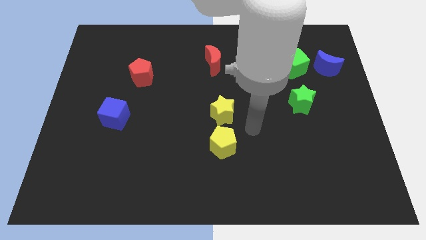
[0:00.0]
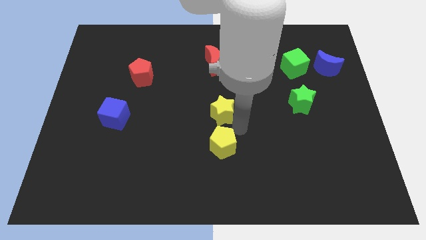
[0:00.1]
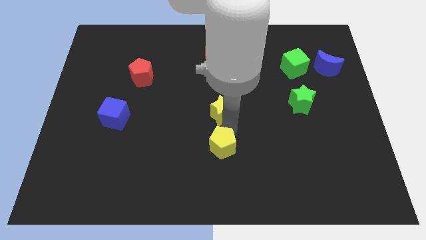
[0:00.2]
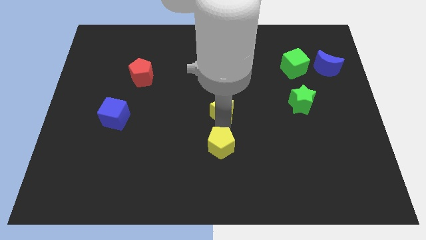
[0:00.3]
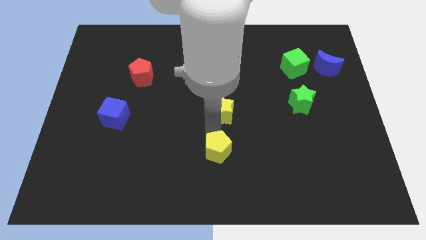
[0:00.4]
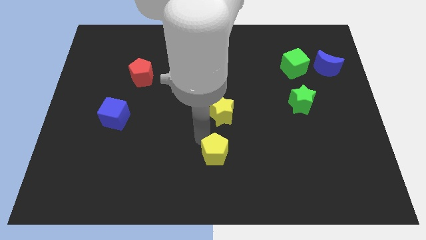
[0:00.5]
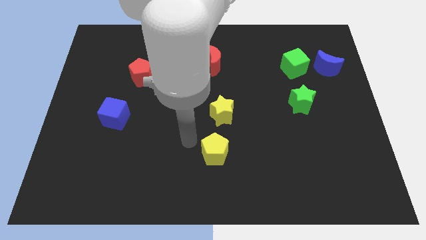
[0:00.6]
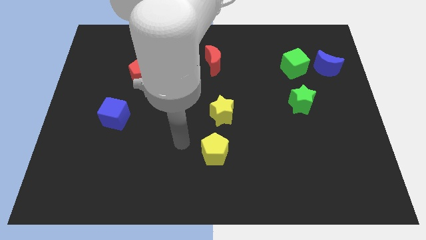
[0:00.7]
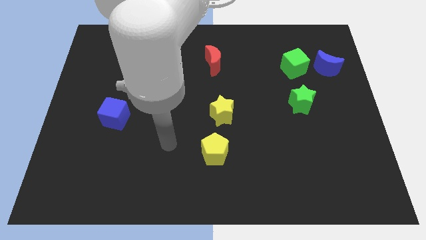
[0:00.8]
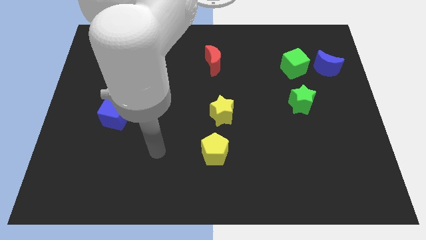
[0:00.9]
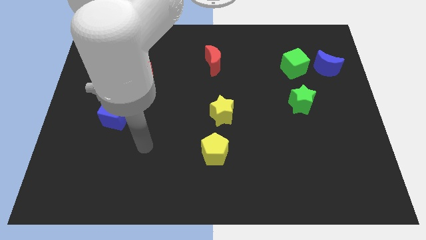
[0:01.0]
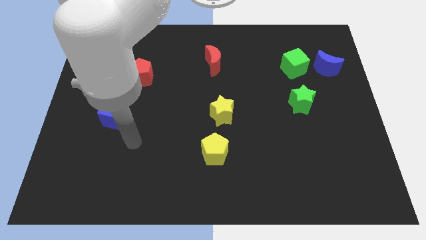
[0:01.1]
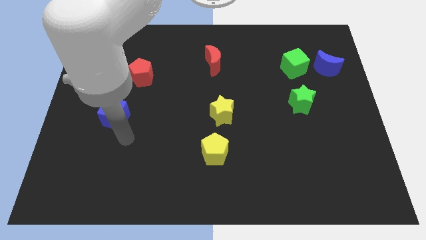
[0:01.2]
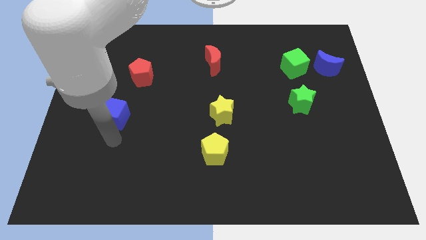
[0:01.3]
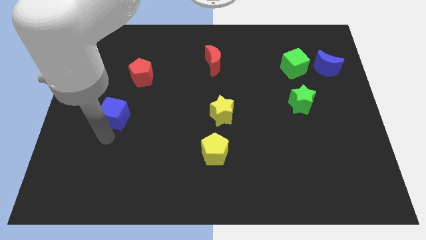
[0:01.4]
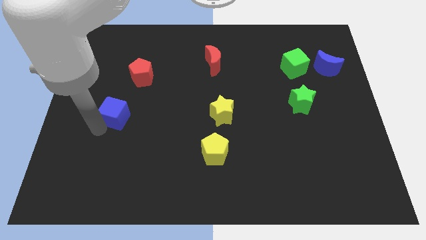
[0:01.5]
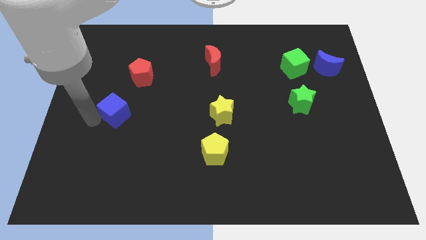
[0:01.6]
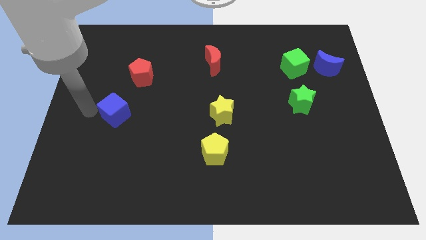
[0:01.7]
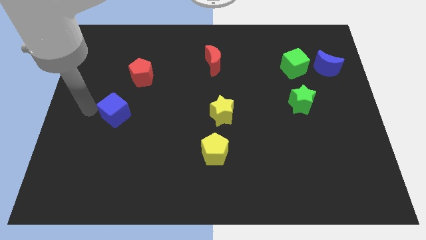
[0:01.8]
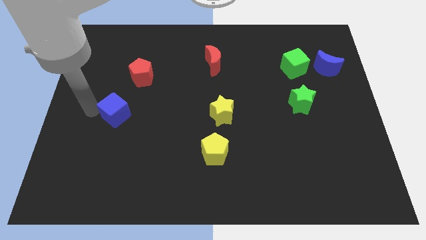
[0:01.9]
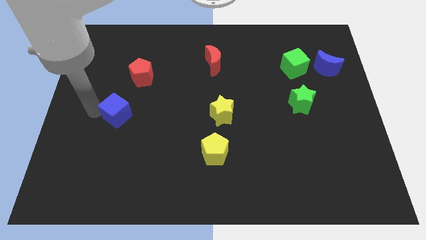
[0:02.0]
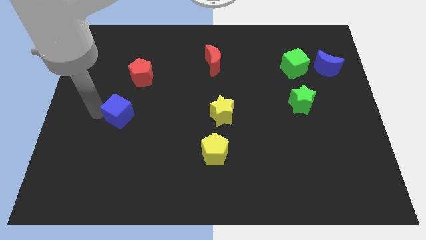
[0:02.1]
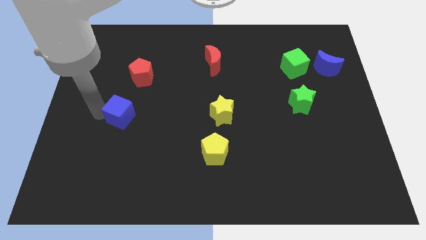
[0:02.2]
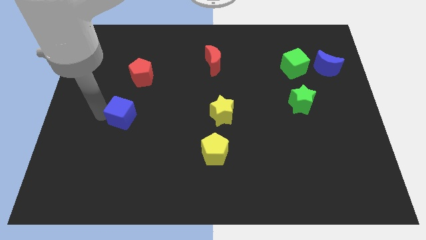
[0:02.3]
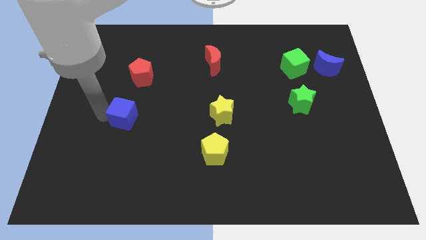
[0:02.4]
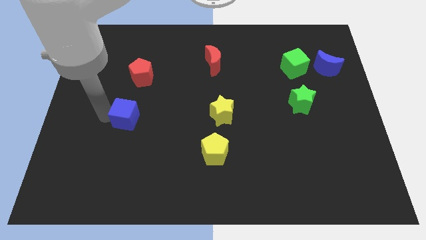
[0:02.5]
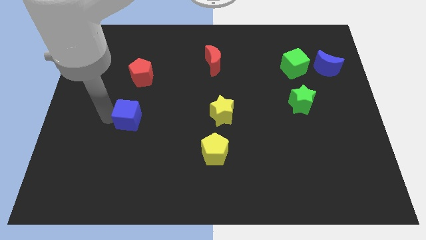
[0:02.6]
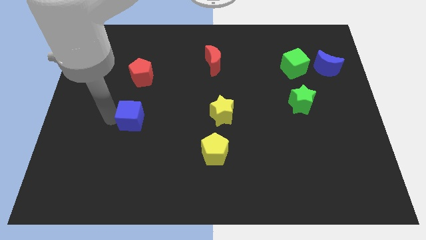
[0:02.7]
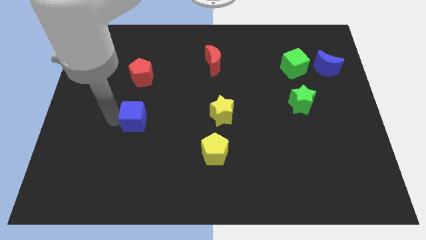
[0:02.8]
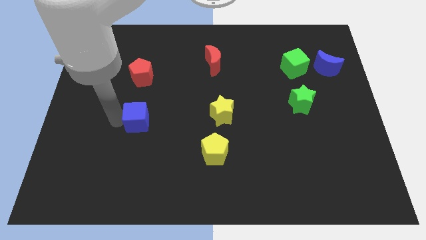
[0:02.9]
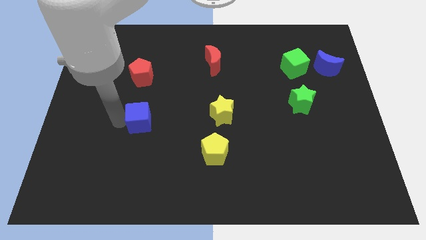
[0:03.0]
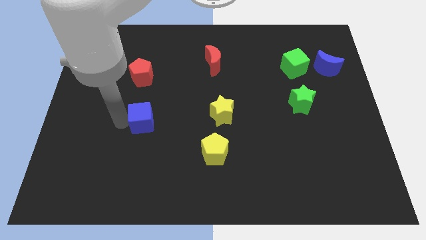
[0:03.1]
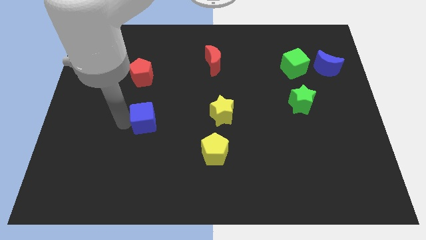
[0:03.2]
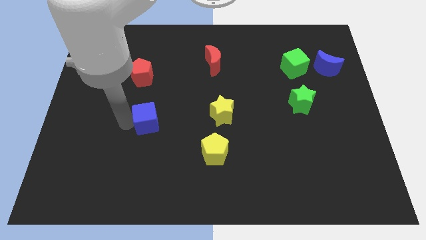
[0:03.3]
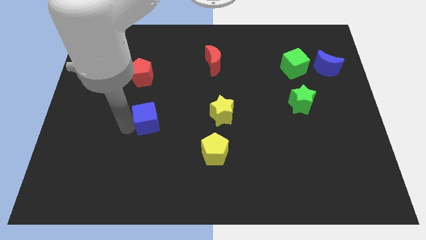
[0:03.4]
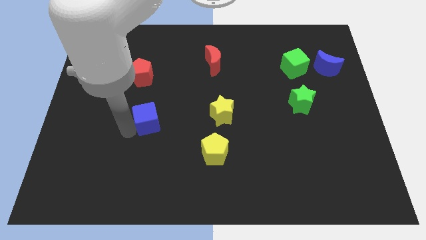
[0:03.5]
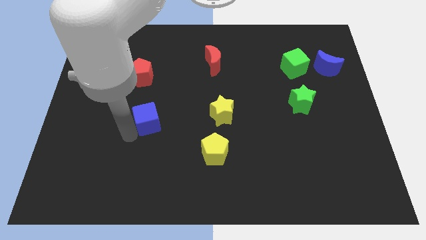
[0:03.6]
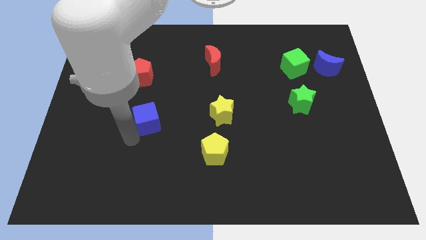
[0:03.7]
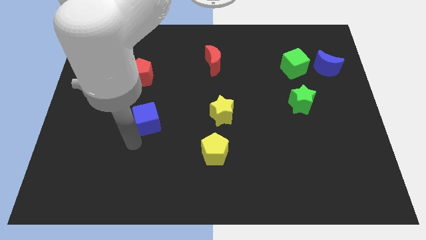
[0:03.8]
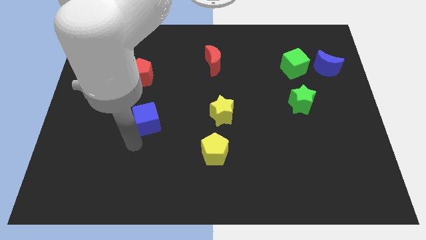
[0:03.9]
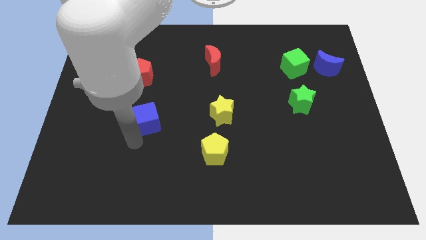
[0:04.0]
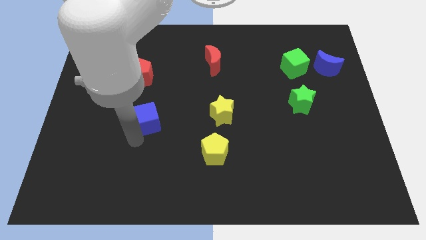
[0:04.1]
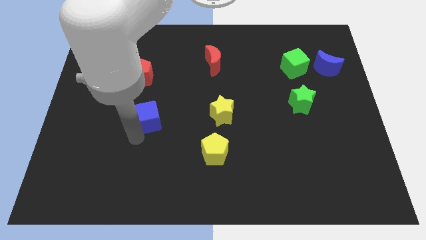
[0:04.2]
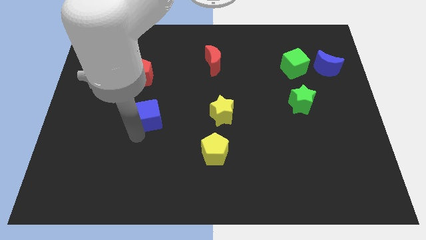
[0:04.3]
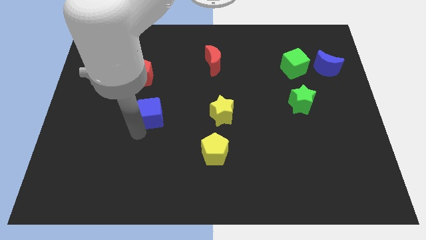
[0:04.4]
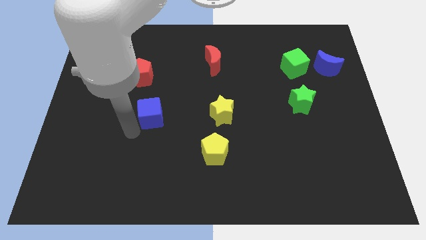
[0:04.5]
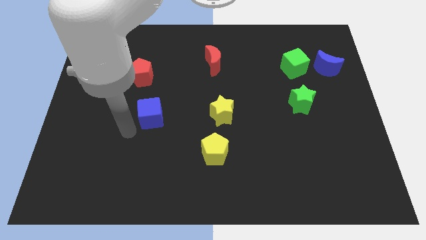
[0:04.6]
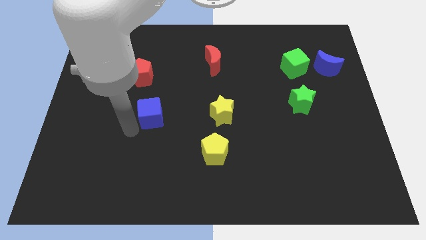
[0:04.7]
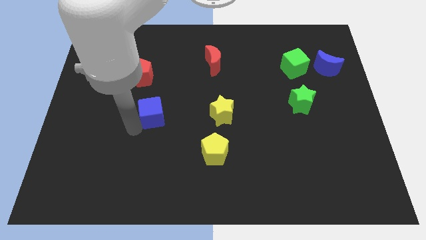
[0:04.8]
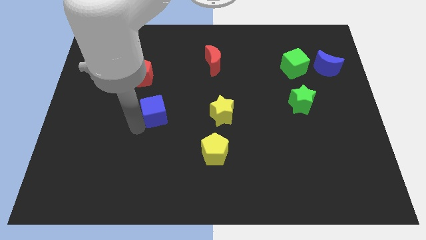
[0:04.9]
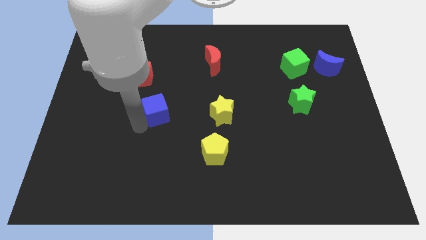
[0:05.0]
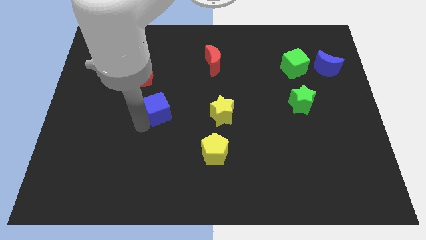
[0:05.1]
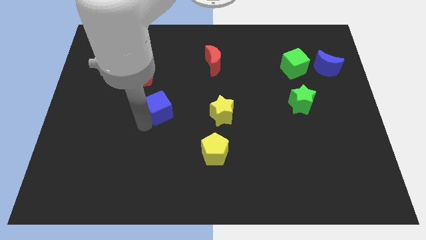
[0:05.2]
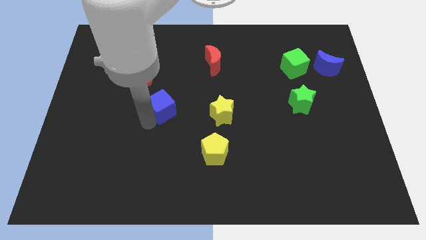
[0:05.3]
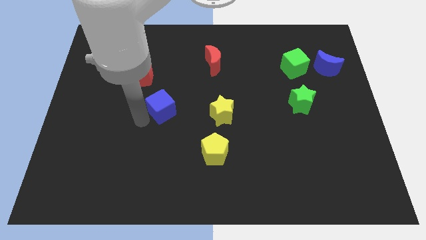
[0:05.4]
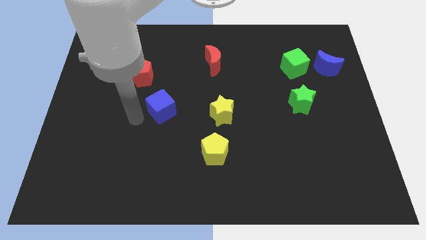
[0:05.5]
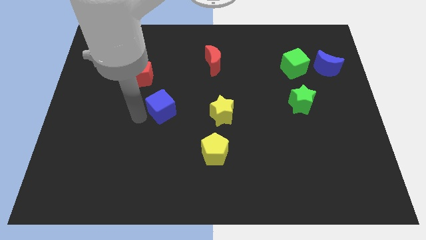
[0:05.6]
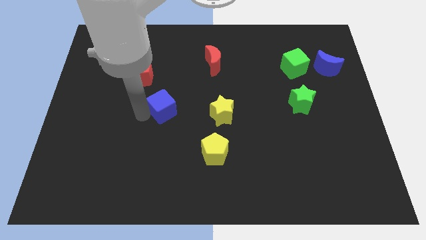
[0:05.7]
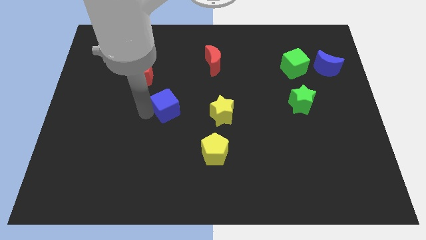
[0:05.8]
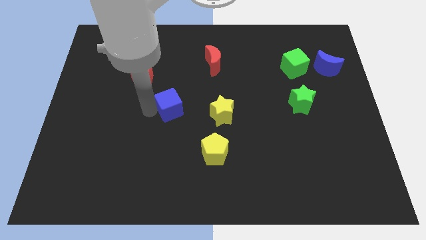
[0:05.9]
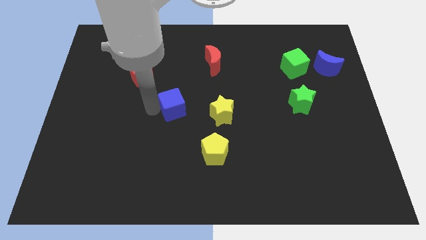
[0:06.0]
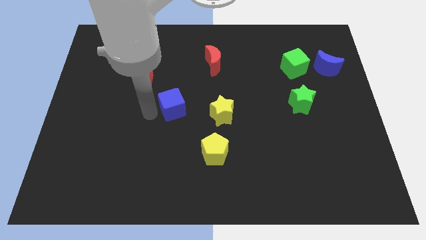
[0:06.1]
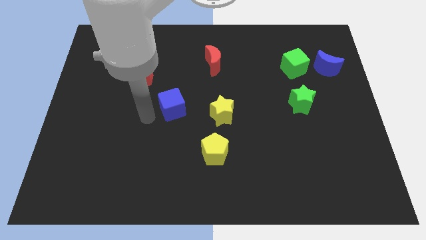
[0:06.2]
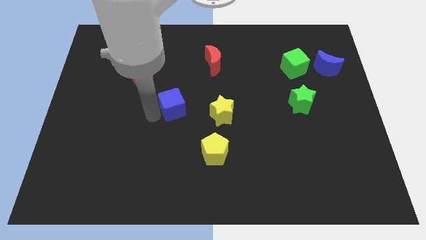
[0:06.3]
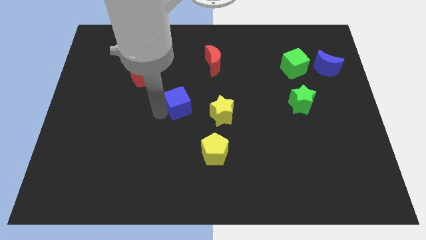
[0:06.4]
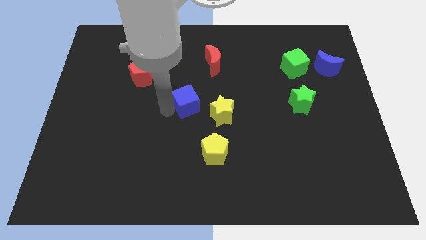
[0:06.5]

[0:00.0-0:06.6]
move the blue cube to the top left of the yellow star

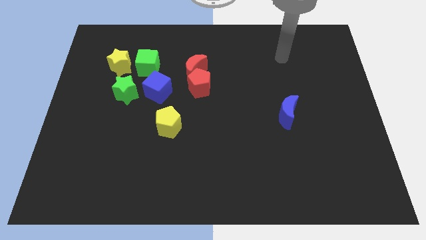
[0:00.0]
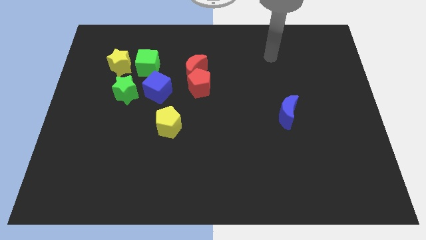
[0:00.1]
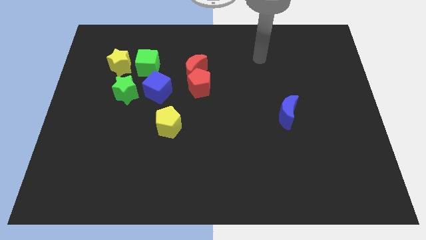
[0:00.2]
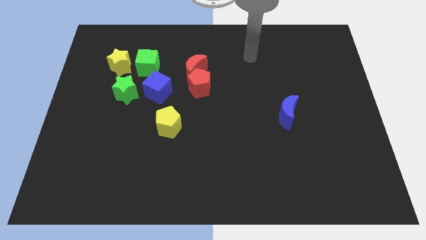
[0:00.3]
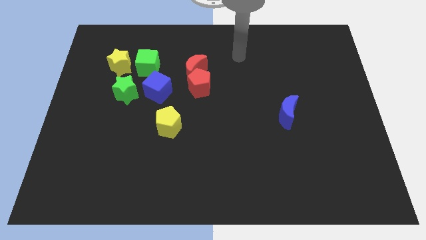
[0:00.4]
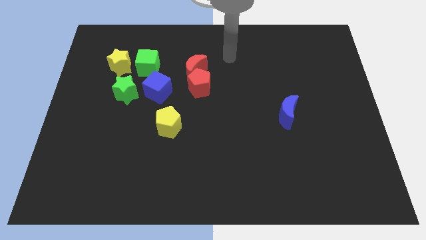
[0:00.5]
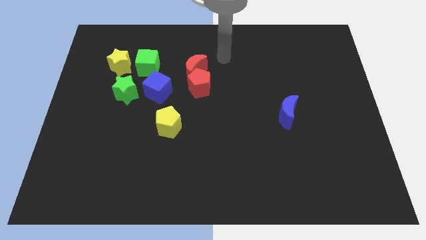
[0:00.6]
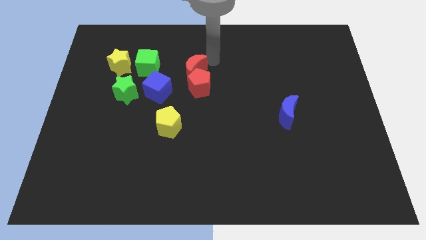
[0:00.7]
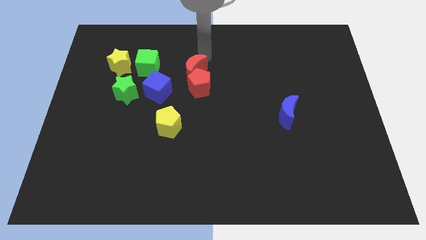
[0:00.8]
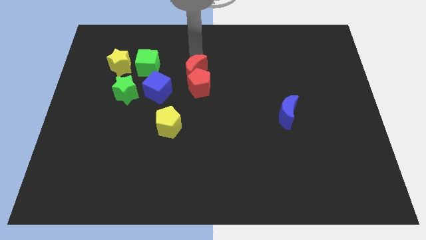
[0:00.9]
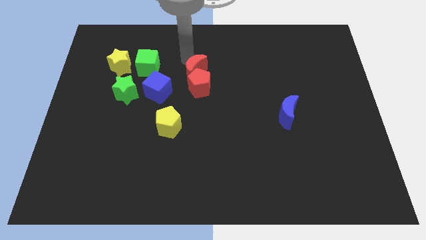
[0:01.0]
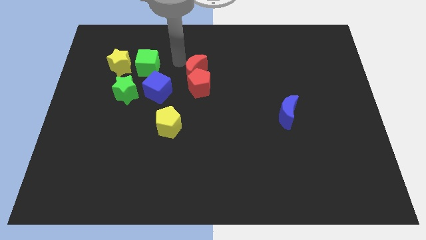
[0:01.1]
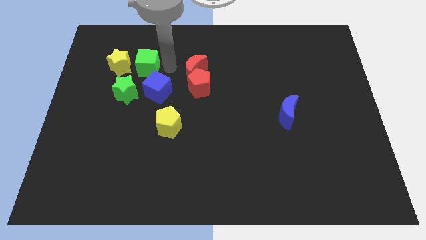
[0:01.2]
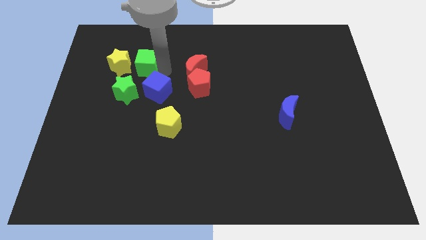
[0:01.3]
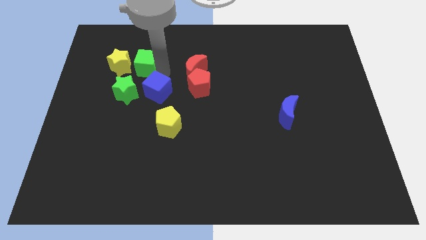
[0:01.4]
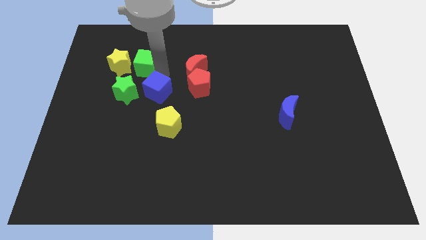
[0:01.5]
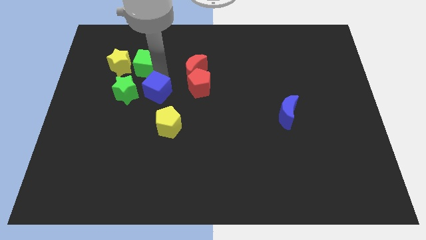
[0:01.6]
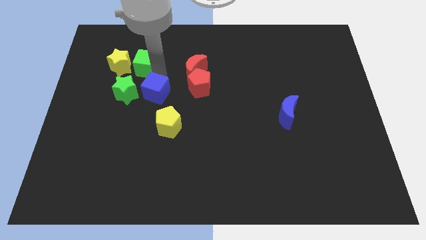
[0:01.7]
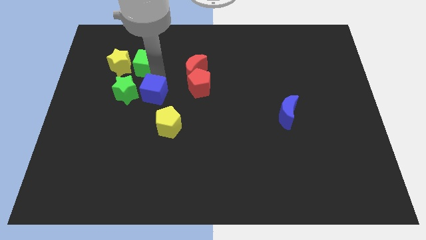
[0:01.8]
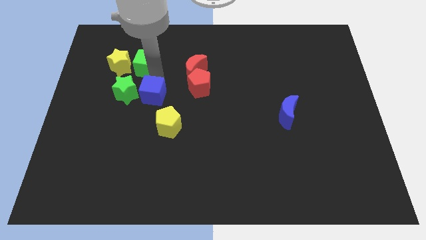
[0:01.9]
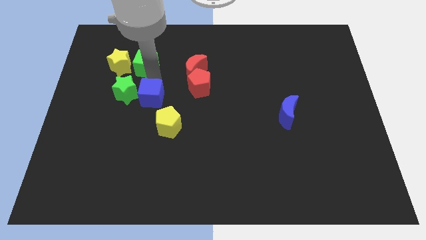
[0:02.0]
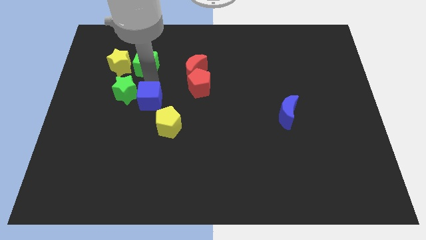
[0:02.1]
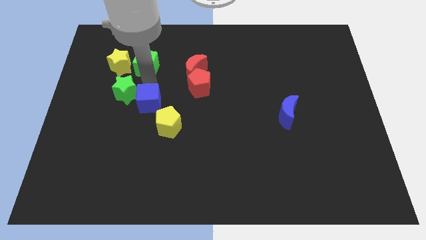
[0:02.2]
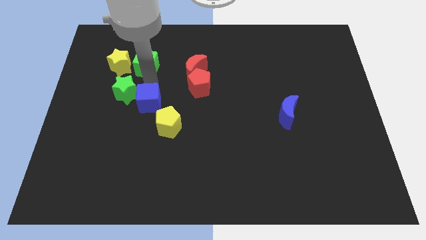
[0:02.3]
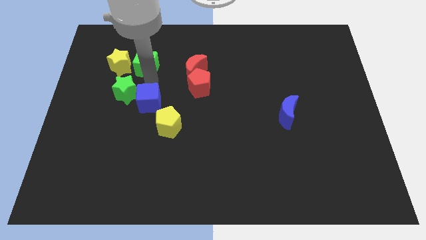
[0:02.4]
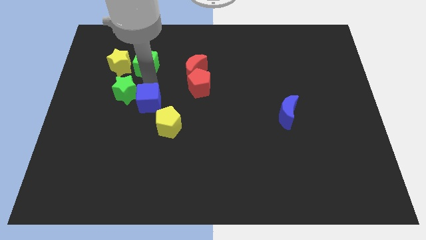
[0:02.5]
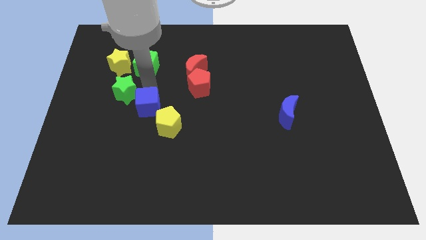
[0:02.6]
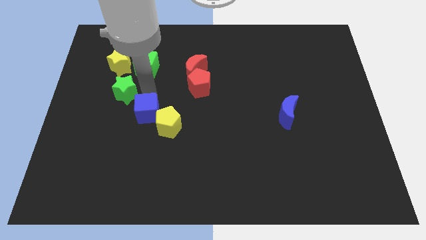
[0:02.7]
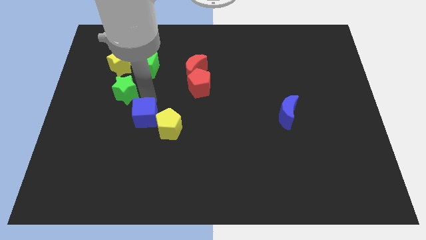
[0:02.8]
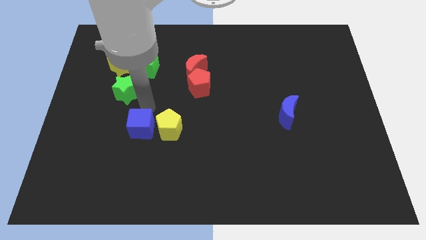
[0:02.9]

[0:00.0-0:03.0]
put the blue cube to the bottom left side of the yellow pentagon
